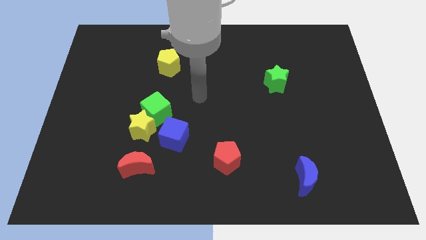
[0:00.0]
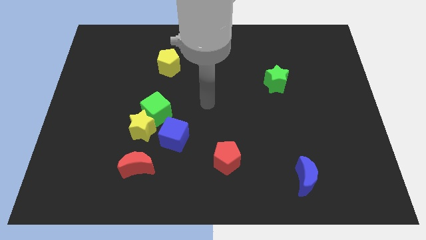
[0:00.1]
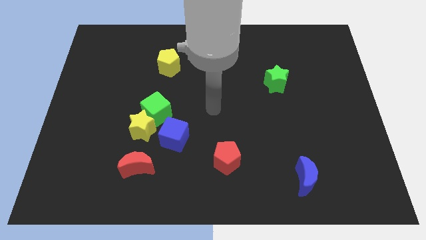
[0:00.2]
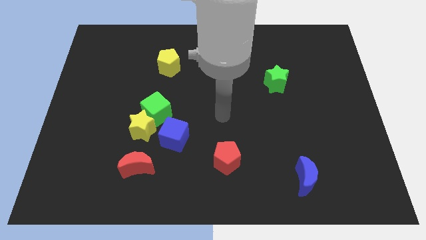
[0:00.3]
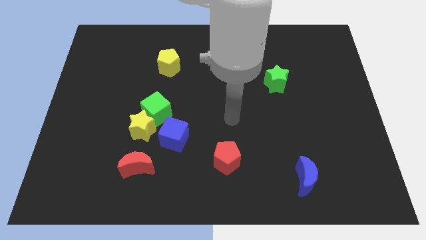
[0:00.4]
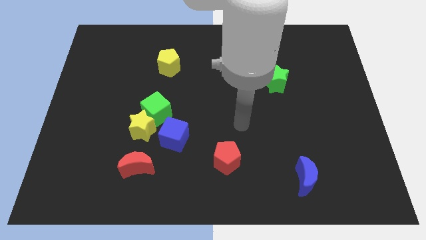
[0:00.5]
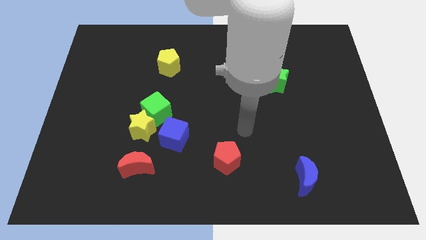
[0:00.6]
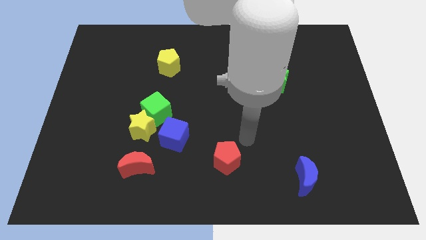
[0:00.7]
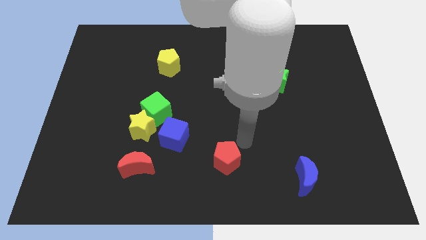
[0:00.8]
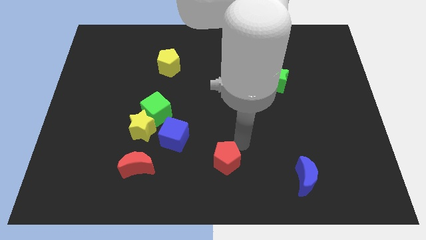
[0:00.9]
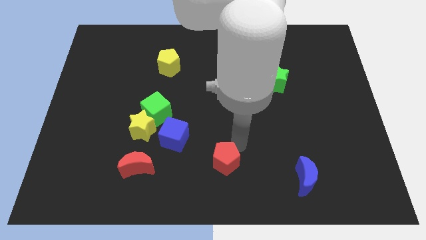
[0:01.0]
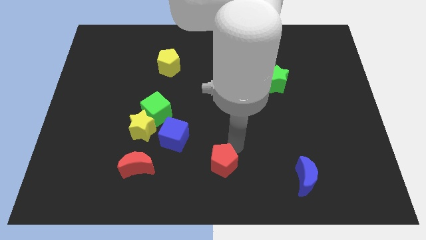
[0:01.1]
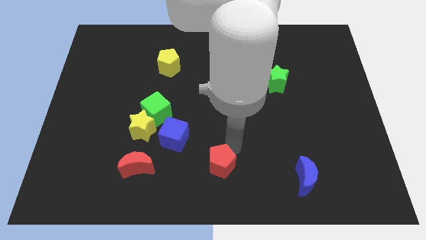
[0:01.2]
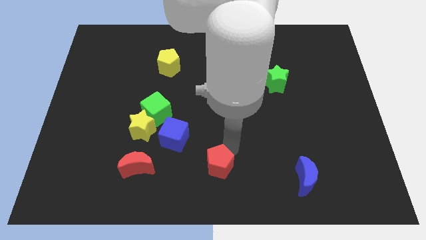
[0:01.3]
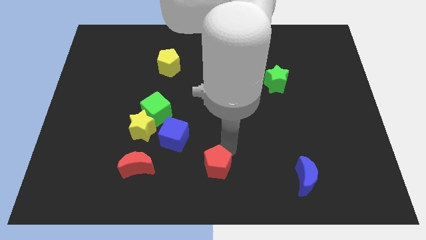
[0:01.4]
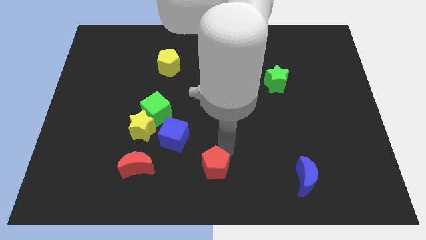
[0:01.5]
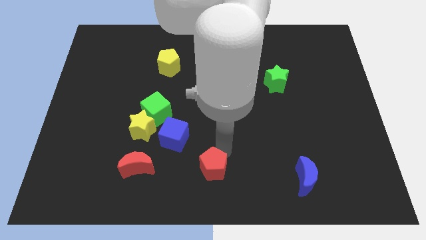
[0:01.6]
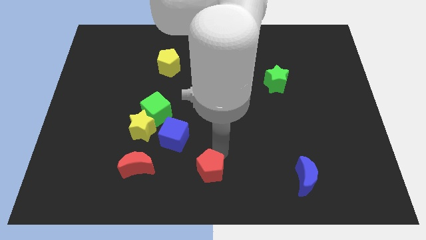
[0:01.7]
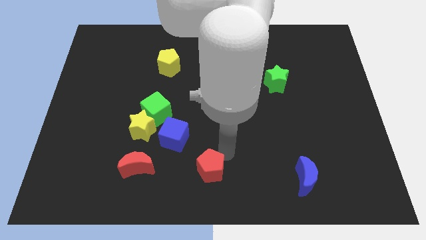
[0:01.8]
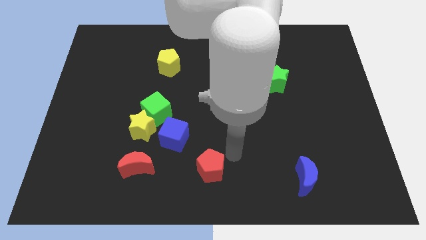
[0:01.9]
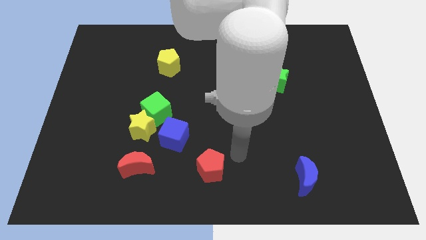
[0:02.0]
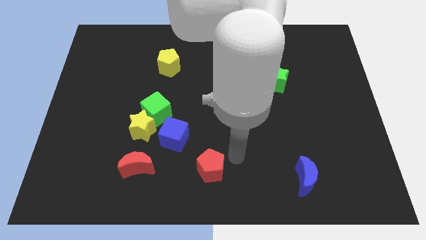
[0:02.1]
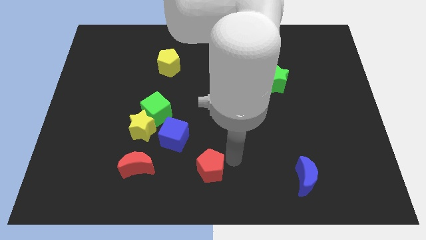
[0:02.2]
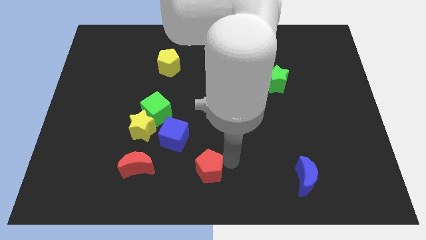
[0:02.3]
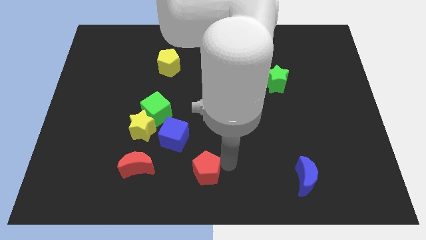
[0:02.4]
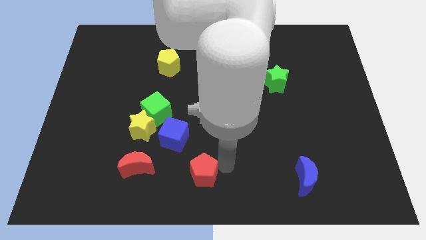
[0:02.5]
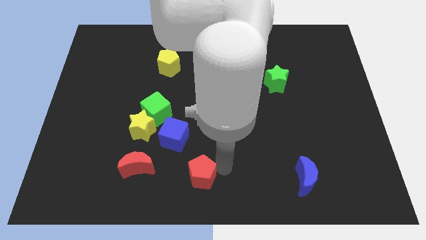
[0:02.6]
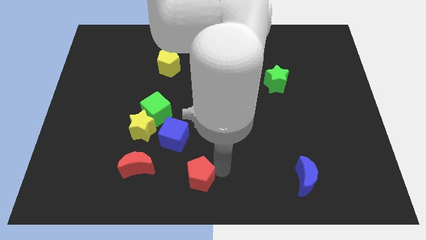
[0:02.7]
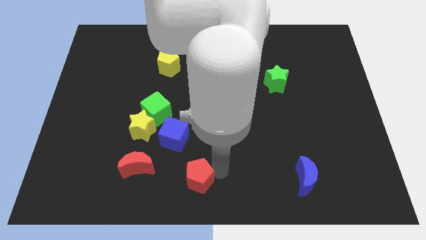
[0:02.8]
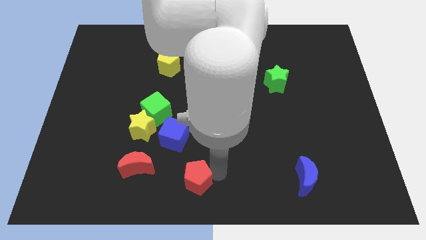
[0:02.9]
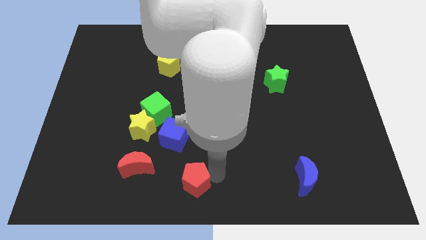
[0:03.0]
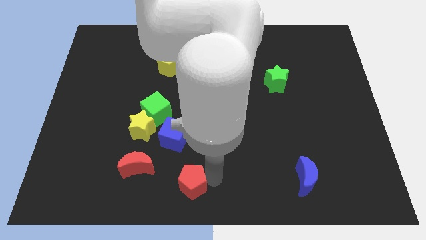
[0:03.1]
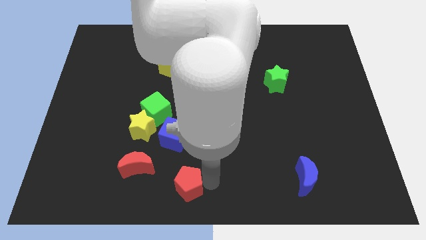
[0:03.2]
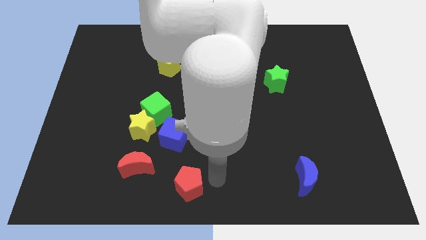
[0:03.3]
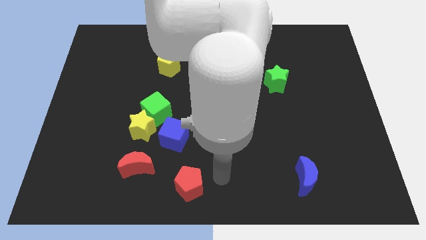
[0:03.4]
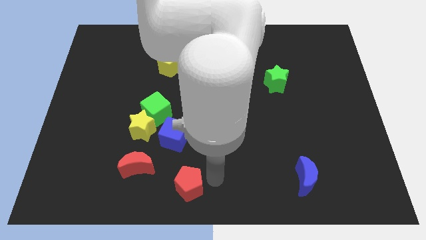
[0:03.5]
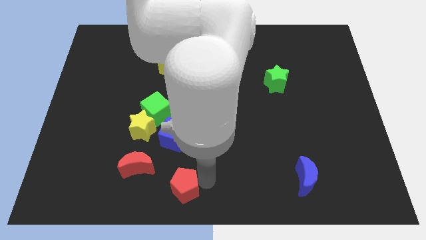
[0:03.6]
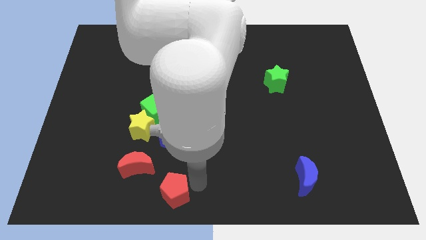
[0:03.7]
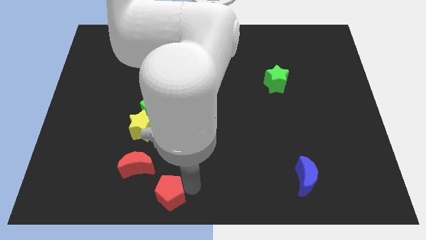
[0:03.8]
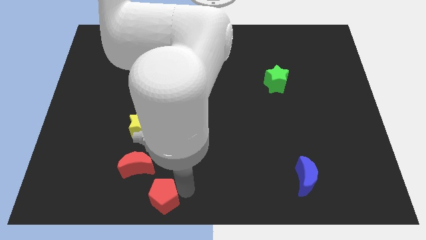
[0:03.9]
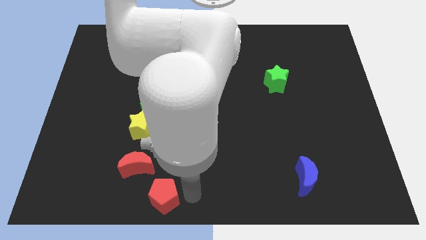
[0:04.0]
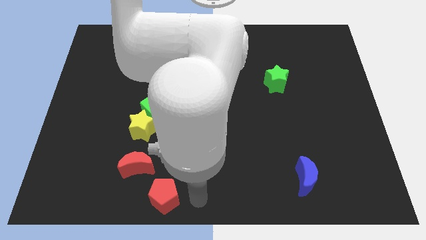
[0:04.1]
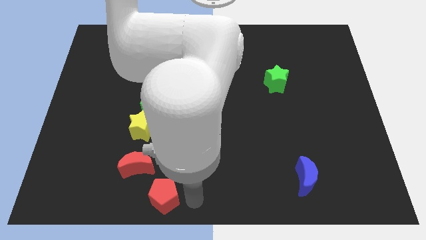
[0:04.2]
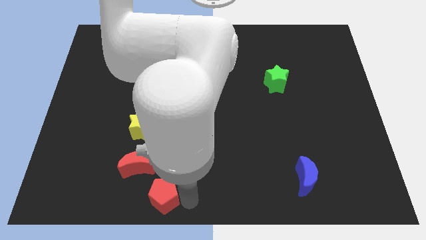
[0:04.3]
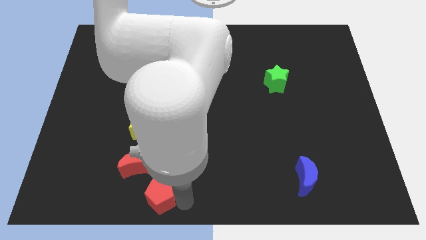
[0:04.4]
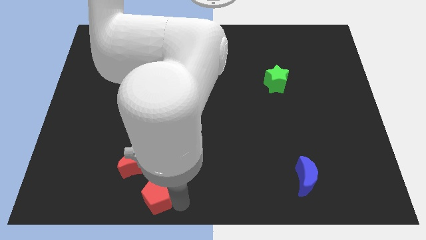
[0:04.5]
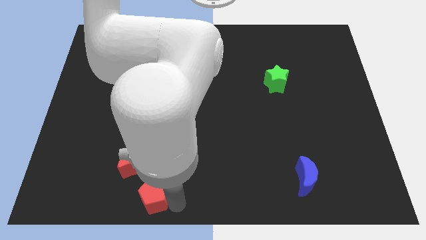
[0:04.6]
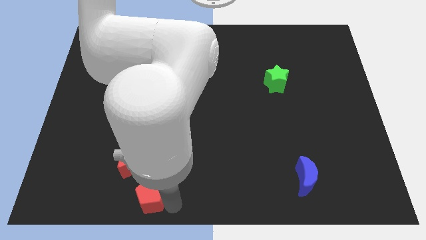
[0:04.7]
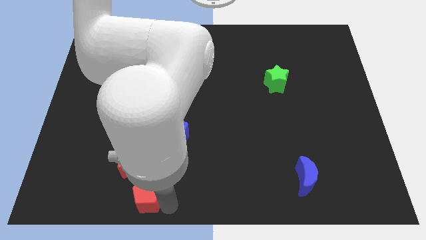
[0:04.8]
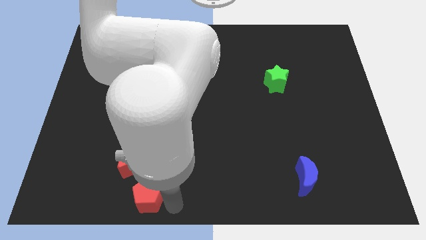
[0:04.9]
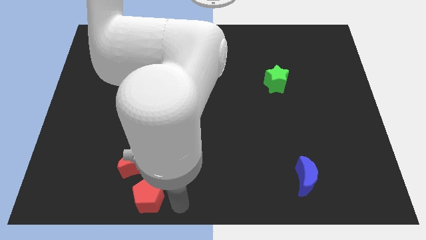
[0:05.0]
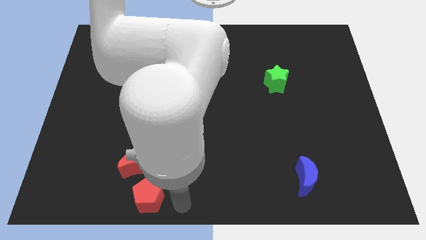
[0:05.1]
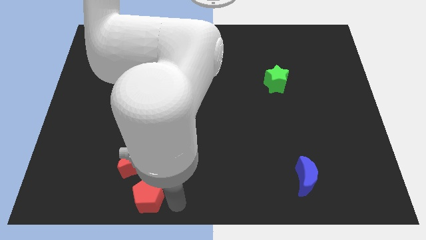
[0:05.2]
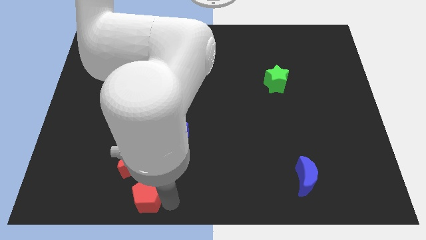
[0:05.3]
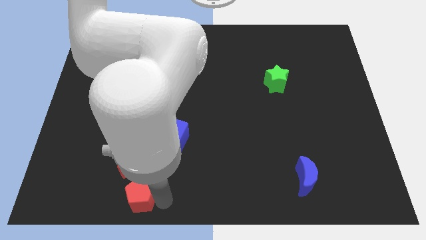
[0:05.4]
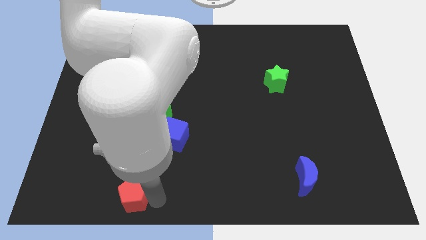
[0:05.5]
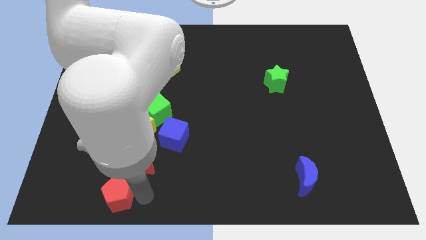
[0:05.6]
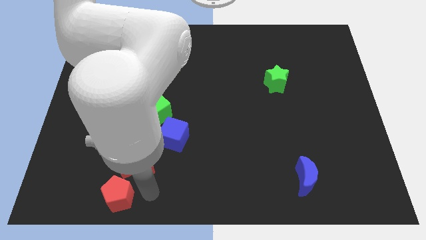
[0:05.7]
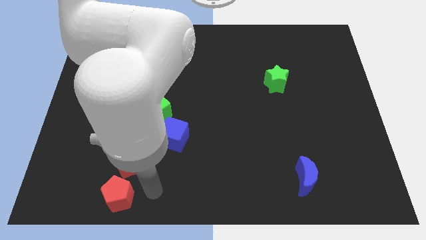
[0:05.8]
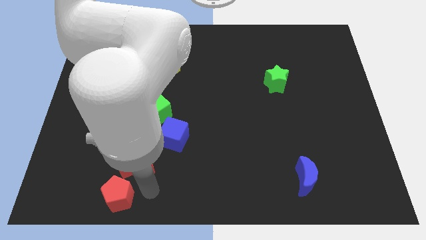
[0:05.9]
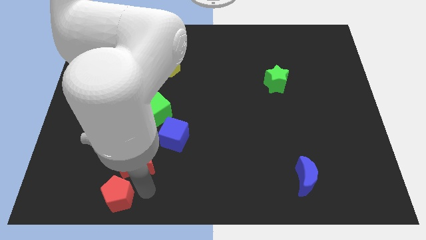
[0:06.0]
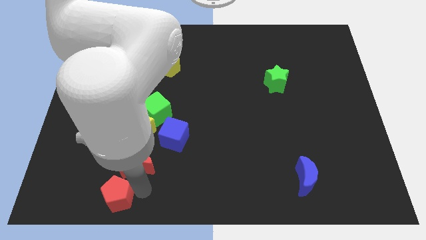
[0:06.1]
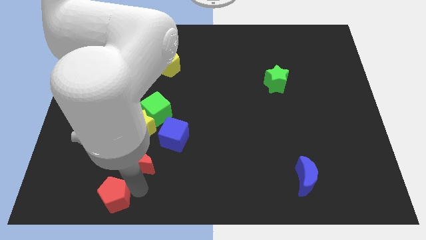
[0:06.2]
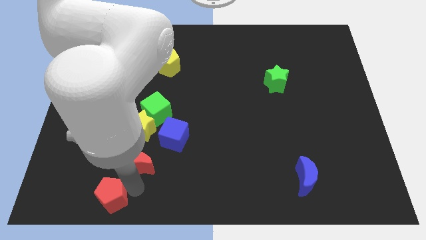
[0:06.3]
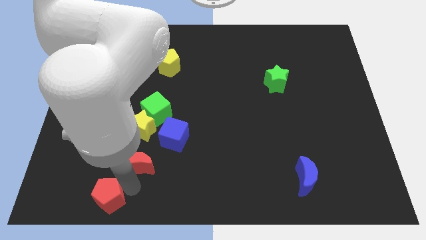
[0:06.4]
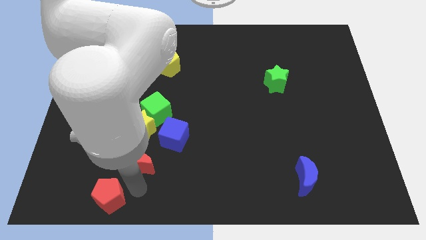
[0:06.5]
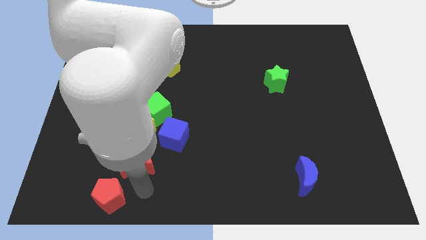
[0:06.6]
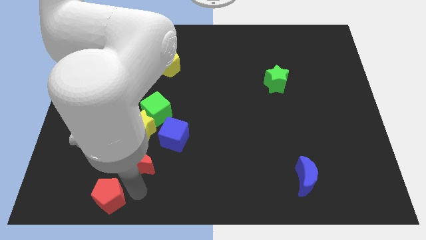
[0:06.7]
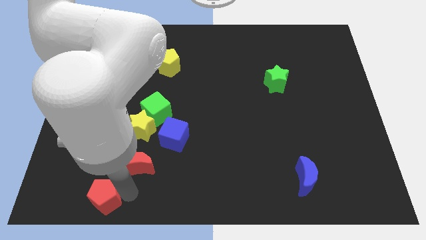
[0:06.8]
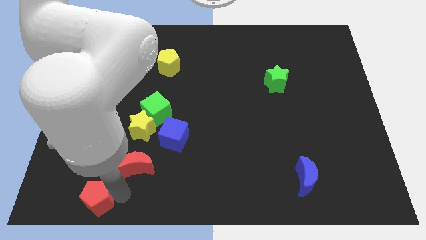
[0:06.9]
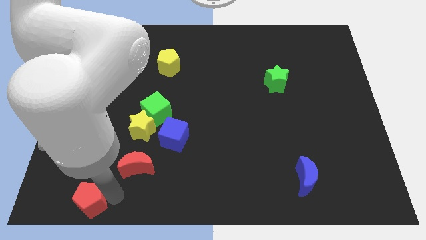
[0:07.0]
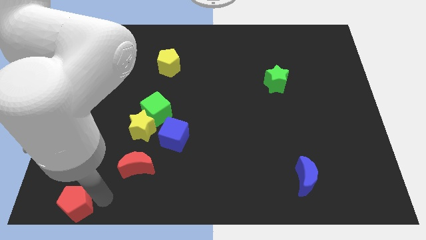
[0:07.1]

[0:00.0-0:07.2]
slide the red pentagon to the lower left corner
